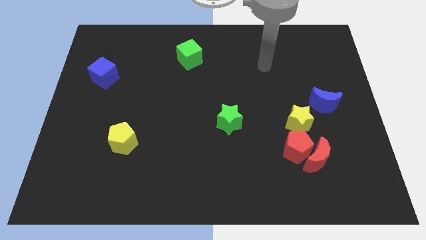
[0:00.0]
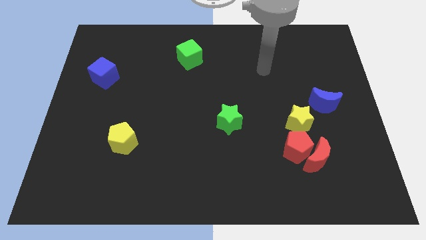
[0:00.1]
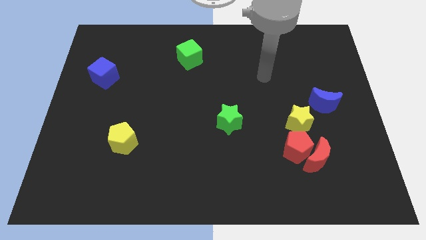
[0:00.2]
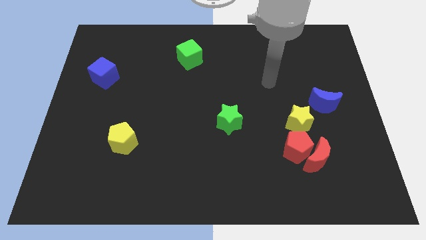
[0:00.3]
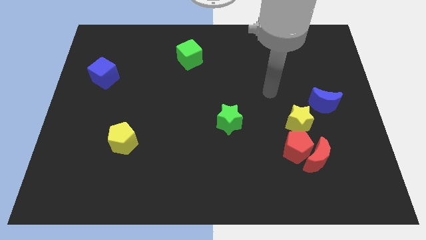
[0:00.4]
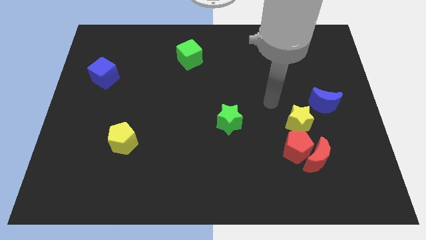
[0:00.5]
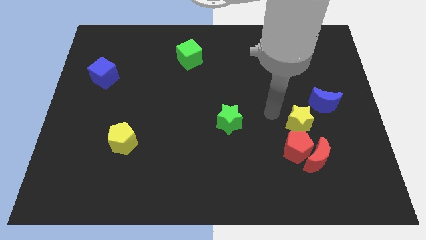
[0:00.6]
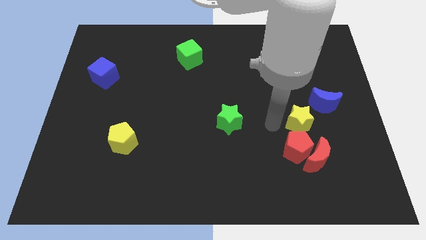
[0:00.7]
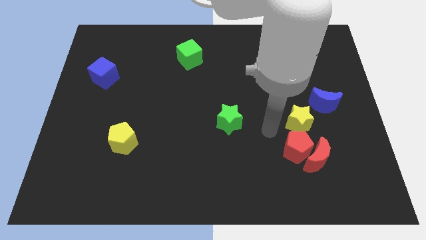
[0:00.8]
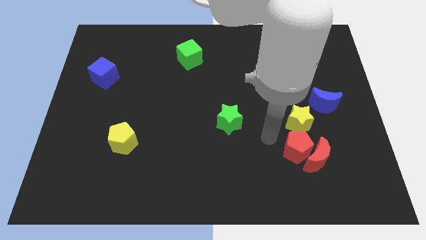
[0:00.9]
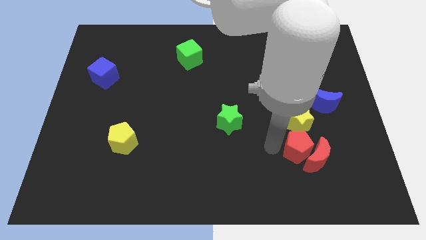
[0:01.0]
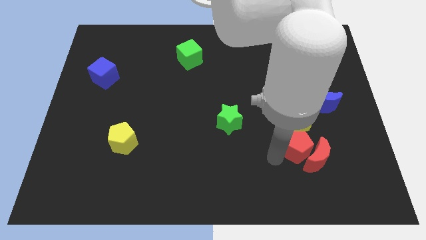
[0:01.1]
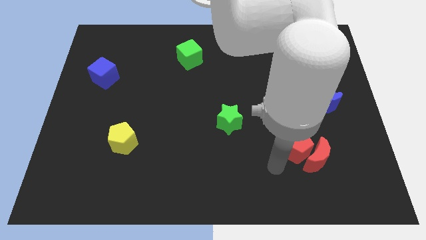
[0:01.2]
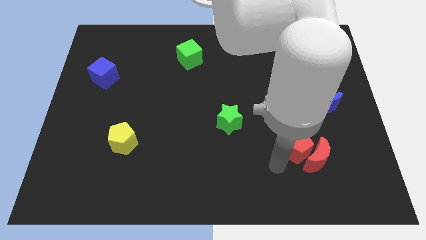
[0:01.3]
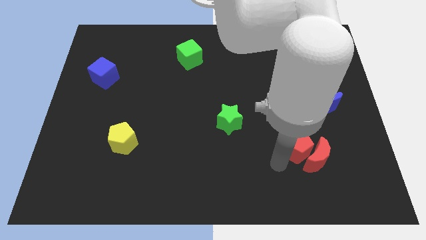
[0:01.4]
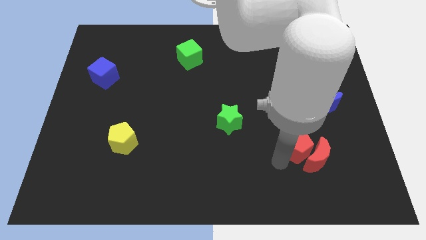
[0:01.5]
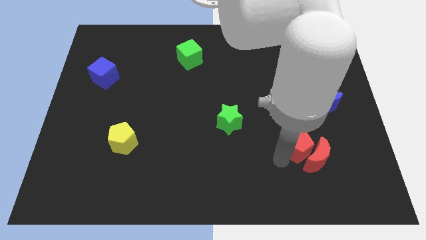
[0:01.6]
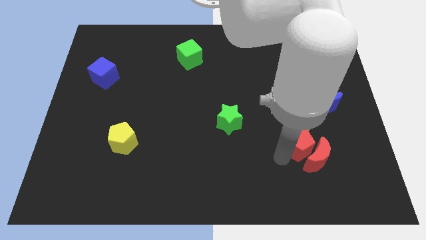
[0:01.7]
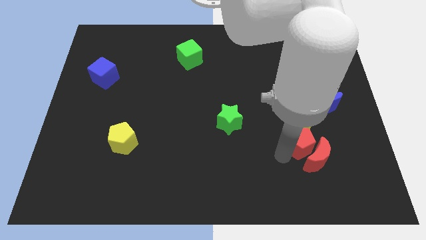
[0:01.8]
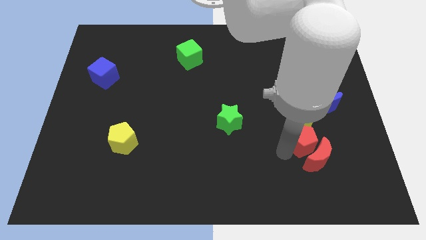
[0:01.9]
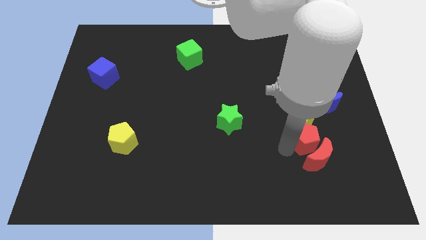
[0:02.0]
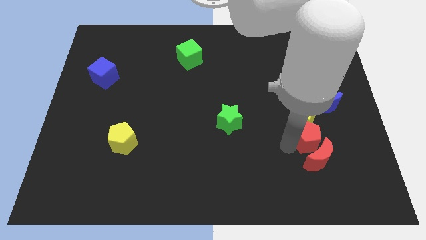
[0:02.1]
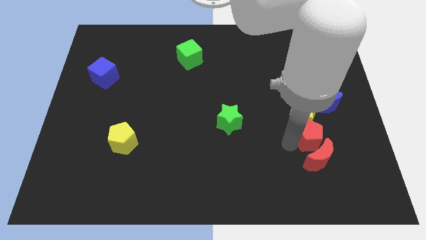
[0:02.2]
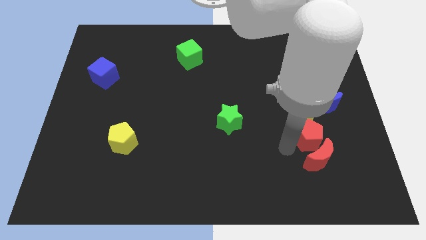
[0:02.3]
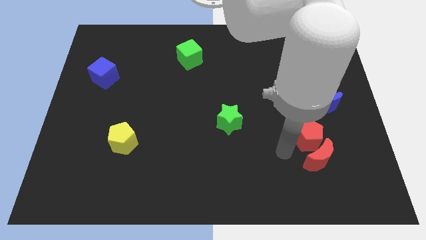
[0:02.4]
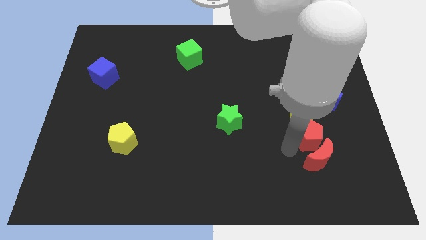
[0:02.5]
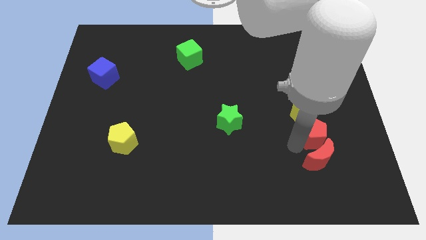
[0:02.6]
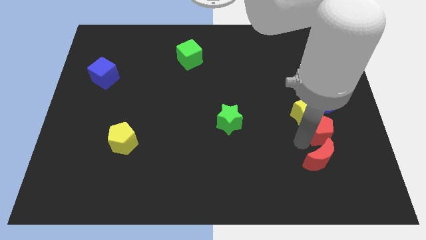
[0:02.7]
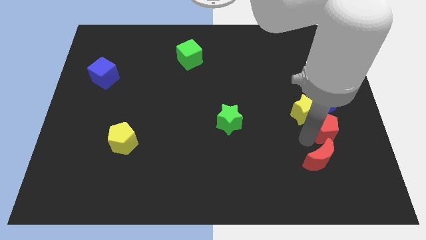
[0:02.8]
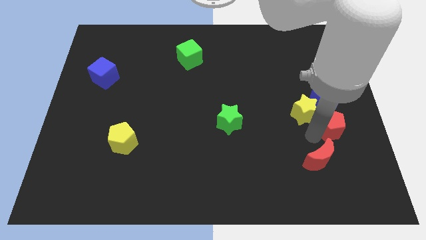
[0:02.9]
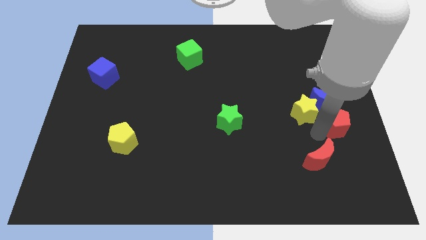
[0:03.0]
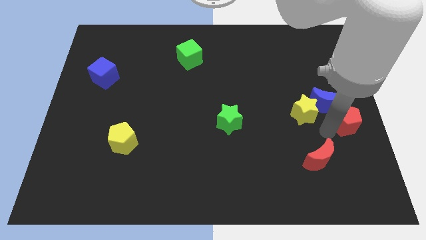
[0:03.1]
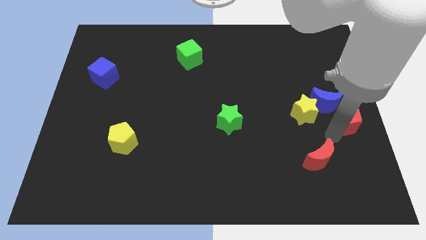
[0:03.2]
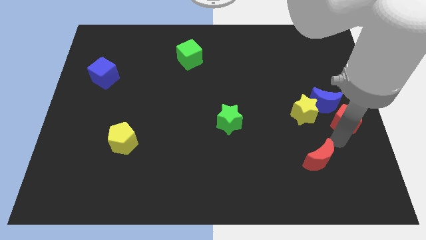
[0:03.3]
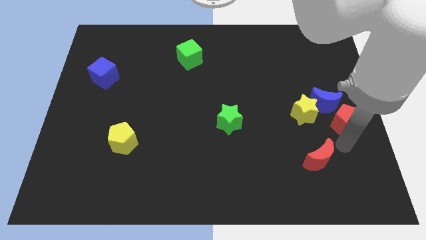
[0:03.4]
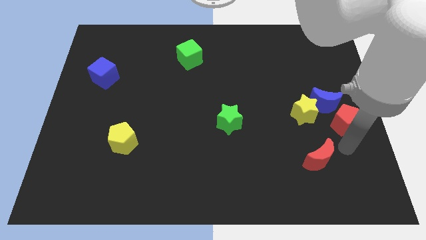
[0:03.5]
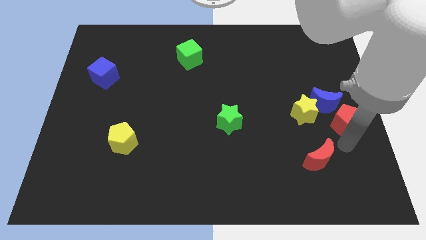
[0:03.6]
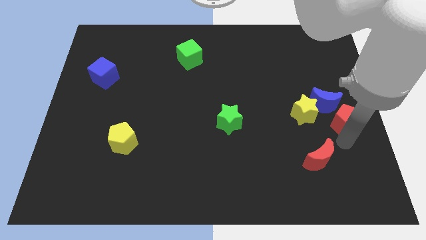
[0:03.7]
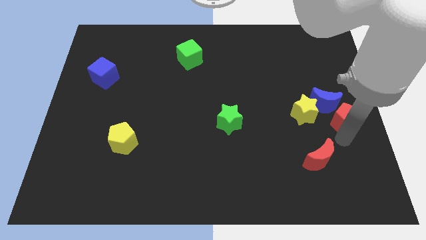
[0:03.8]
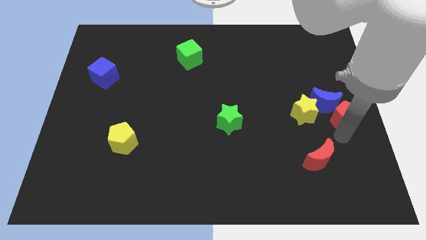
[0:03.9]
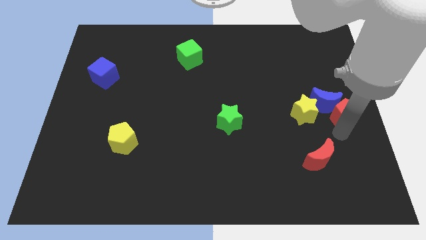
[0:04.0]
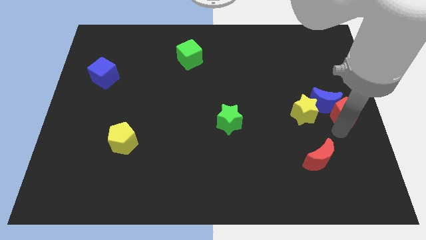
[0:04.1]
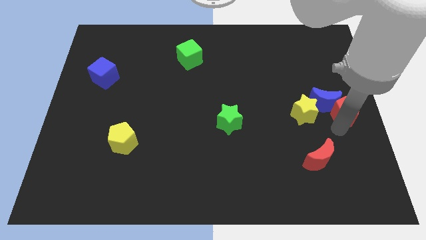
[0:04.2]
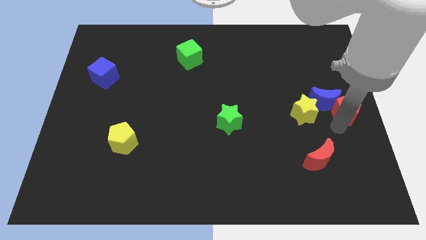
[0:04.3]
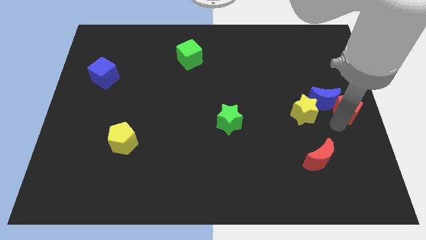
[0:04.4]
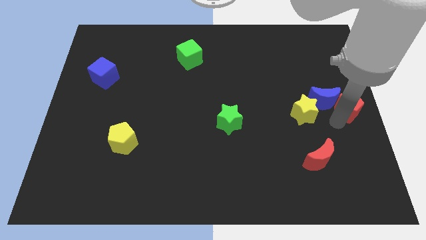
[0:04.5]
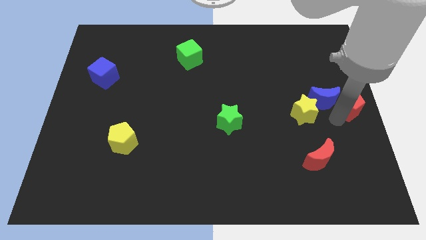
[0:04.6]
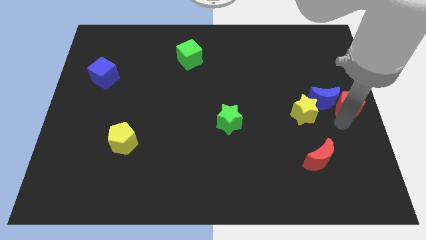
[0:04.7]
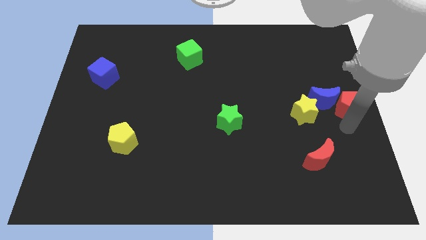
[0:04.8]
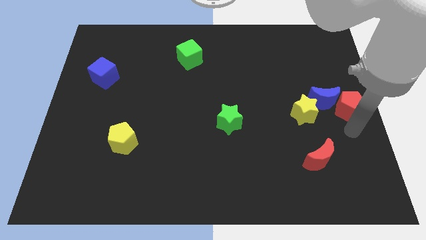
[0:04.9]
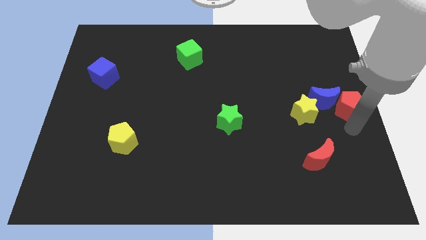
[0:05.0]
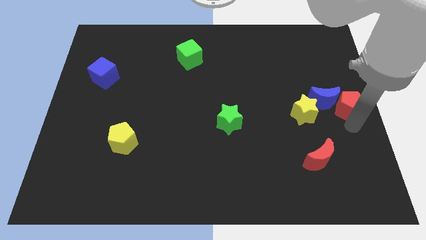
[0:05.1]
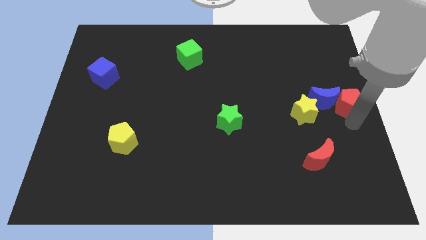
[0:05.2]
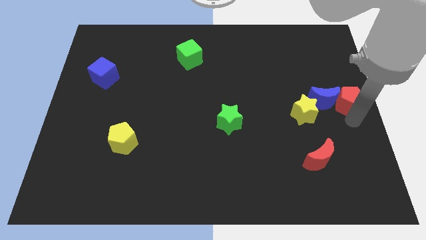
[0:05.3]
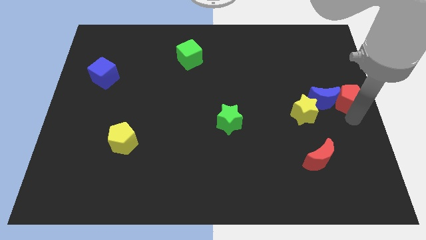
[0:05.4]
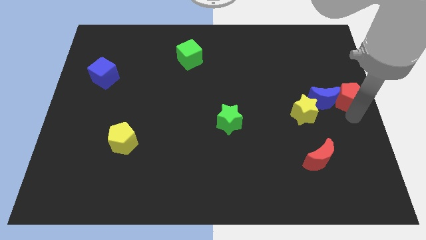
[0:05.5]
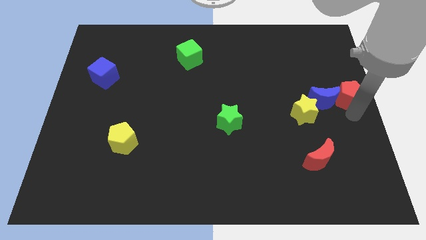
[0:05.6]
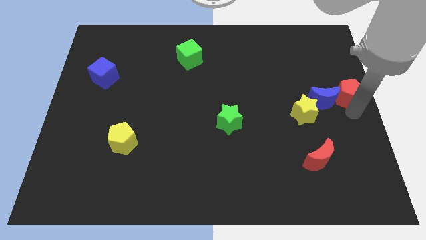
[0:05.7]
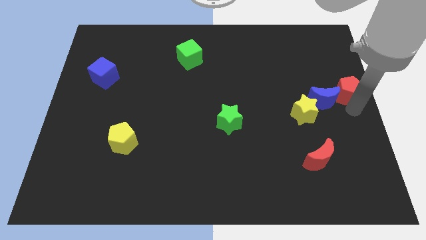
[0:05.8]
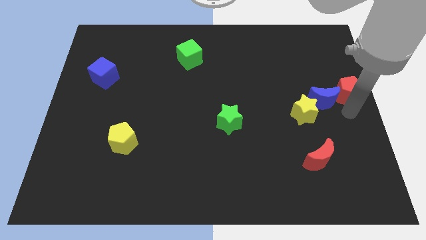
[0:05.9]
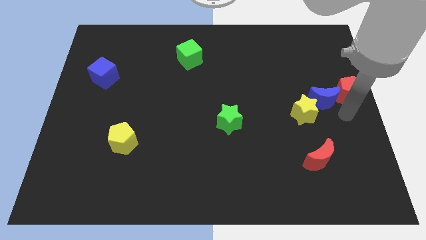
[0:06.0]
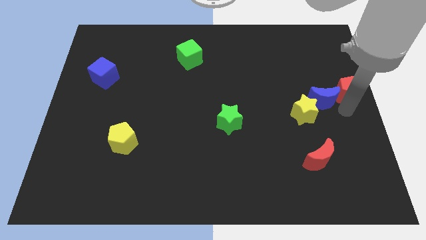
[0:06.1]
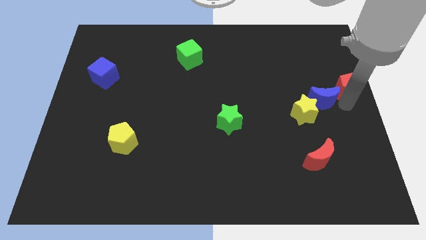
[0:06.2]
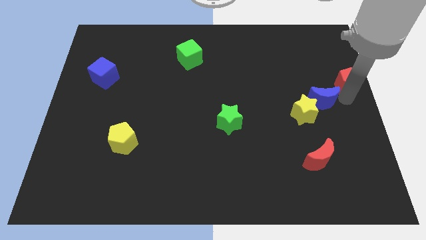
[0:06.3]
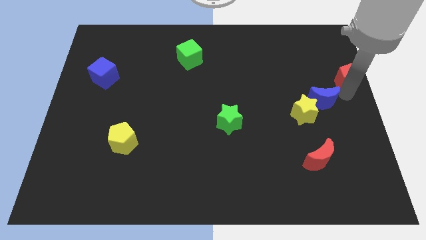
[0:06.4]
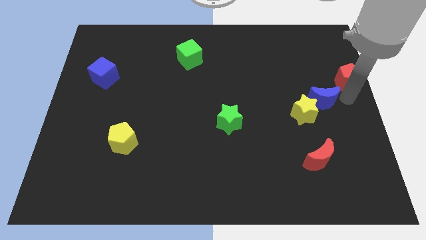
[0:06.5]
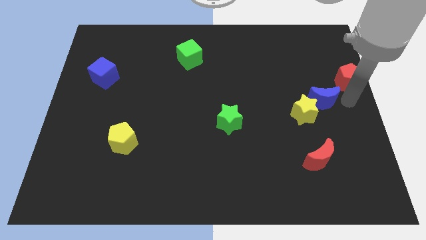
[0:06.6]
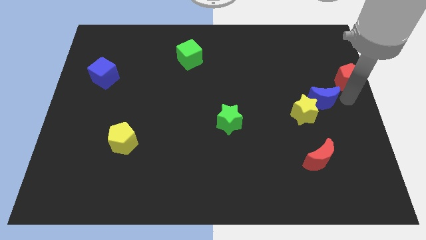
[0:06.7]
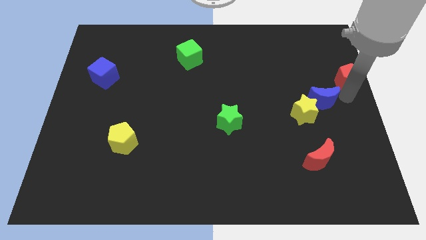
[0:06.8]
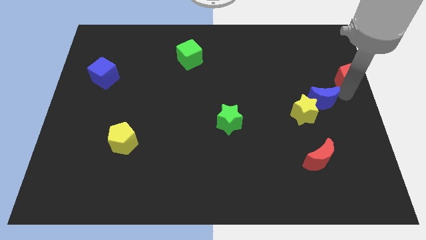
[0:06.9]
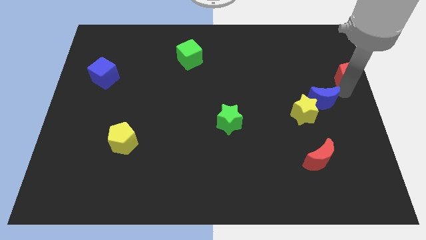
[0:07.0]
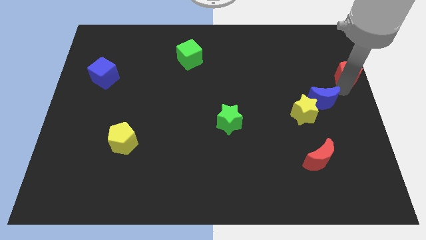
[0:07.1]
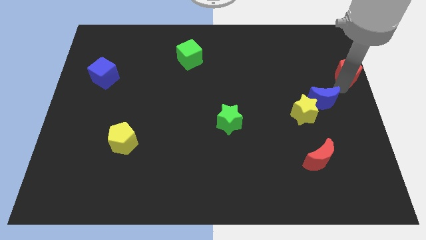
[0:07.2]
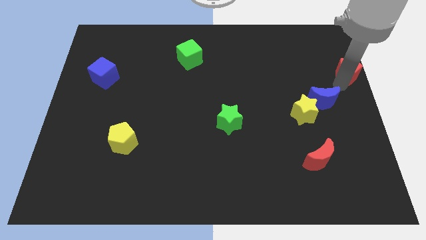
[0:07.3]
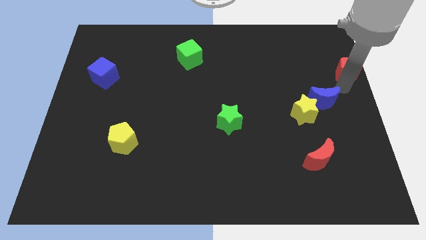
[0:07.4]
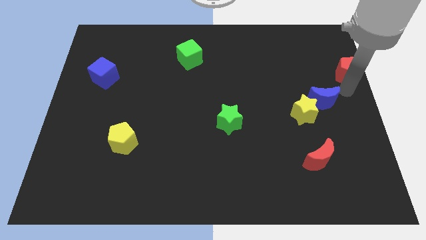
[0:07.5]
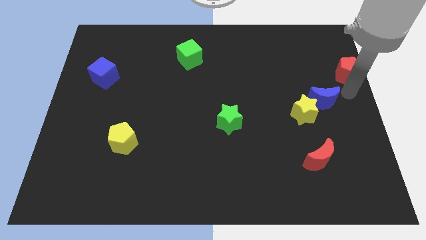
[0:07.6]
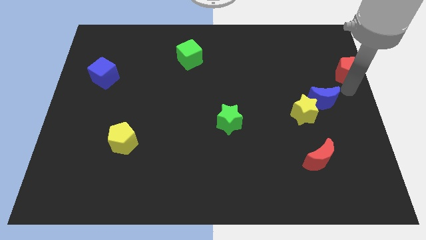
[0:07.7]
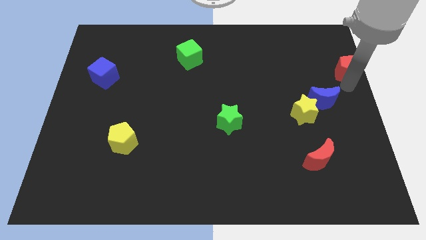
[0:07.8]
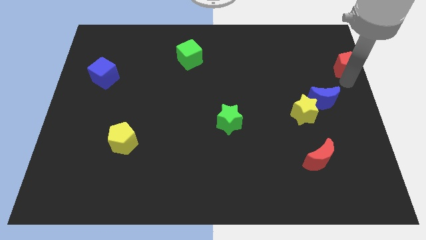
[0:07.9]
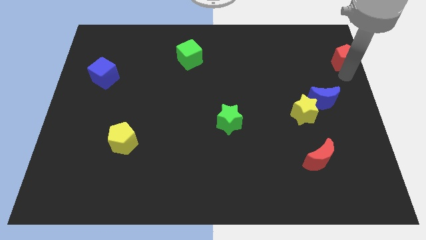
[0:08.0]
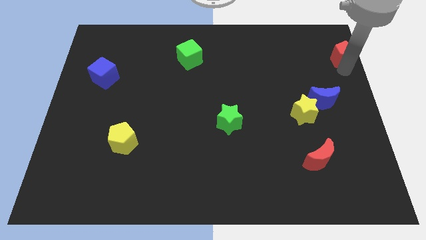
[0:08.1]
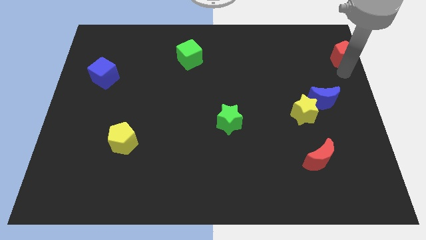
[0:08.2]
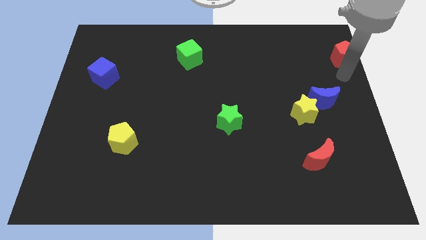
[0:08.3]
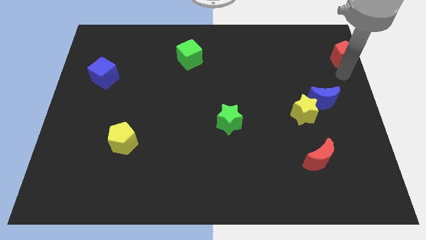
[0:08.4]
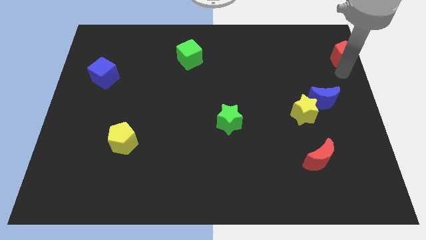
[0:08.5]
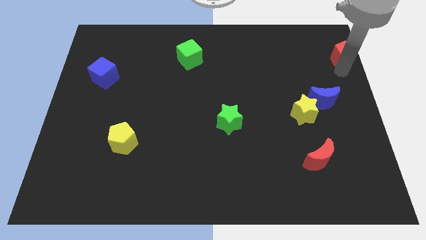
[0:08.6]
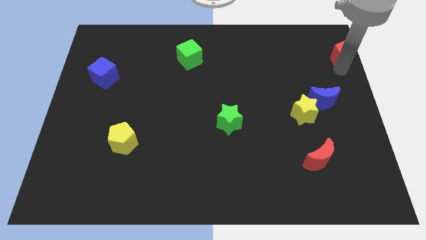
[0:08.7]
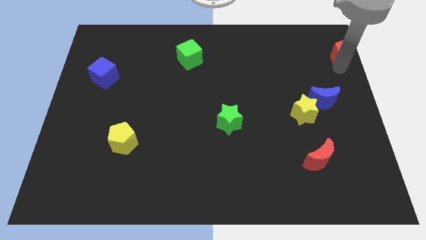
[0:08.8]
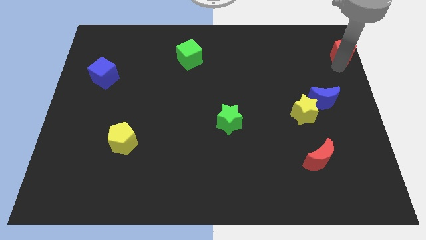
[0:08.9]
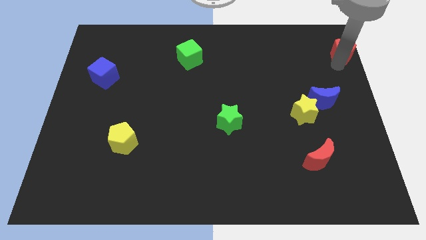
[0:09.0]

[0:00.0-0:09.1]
put the red pentagon to the top right of the board
